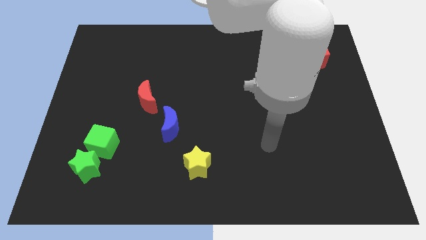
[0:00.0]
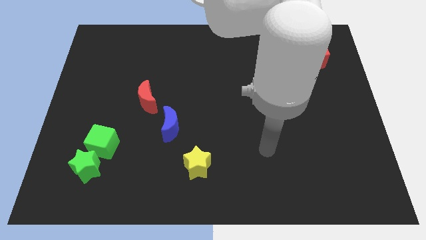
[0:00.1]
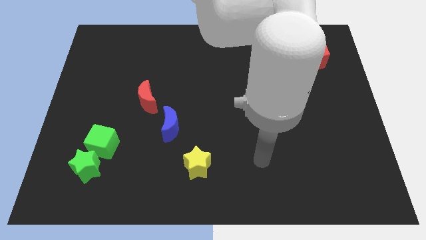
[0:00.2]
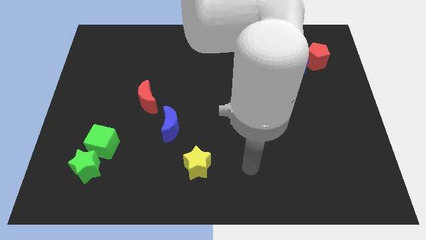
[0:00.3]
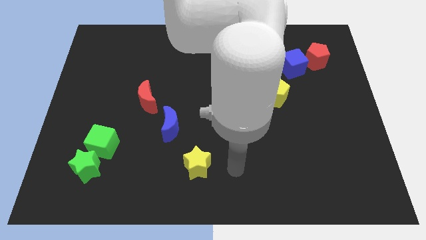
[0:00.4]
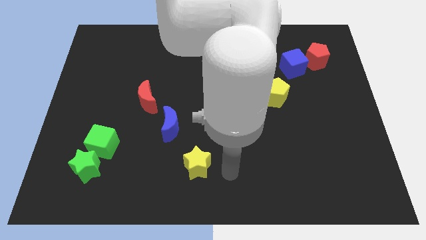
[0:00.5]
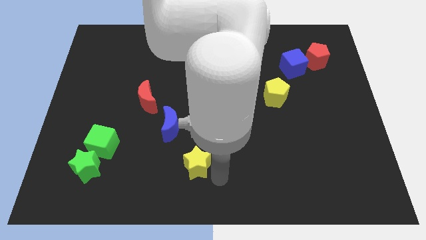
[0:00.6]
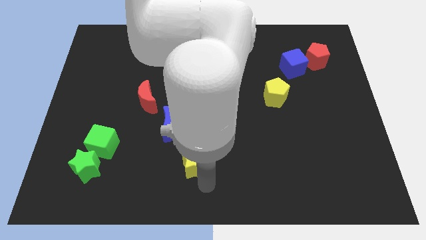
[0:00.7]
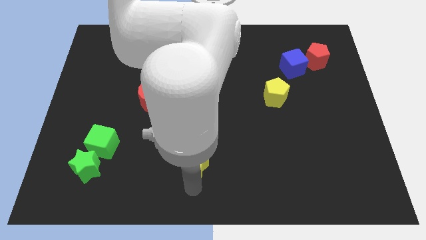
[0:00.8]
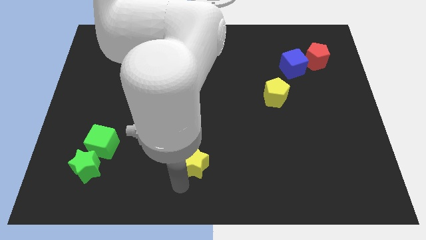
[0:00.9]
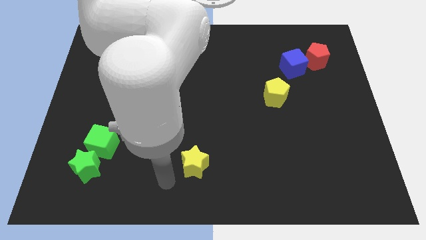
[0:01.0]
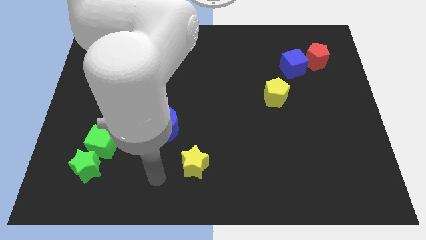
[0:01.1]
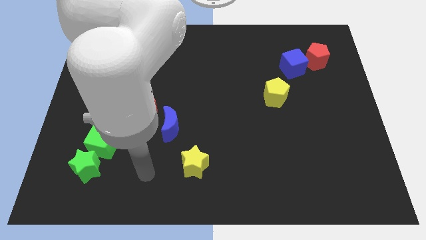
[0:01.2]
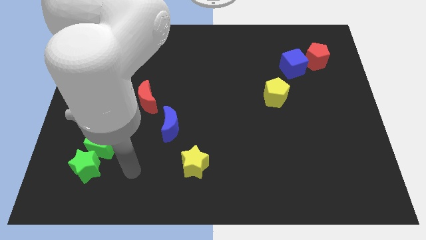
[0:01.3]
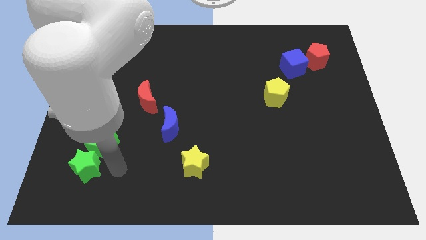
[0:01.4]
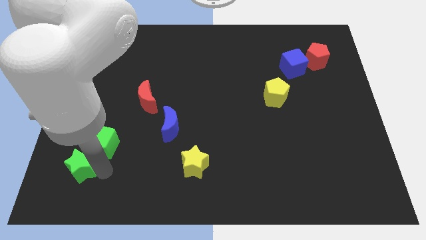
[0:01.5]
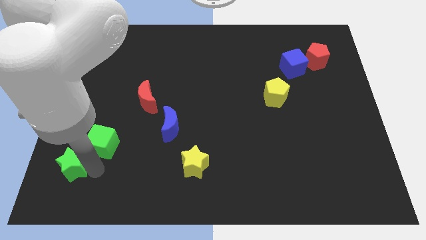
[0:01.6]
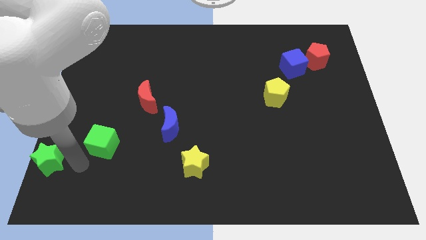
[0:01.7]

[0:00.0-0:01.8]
move the green cube away from the green star

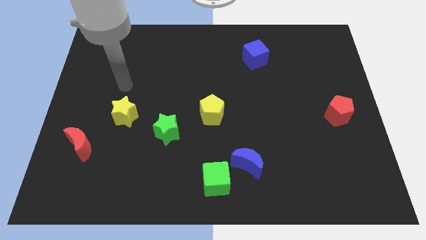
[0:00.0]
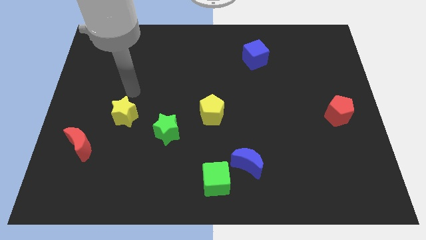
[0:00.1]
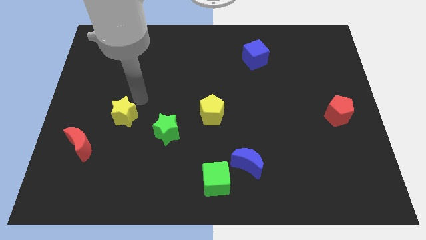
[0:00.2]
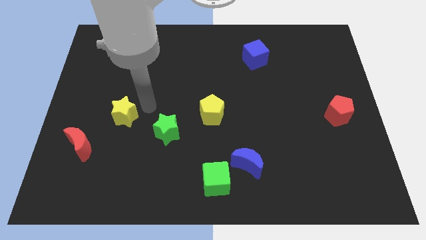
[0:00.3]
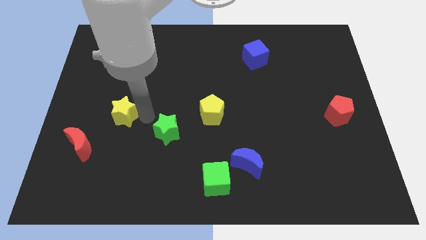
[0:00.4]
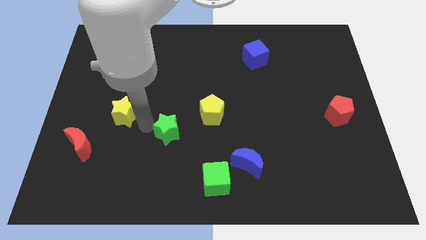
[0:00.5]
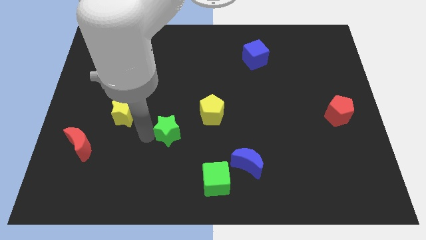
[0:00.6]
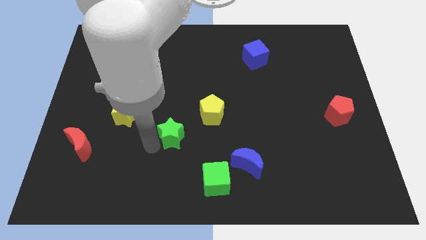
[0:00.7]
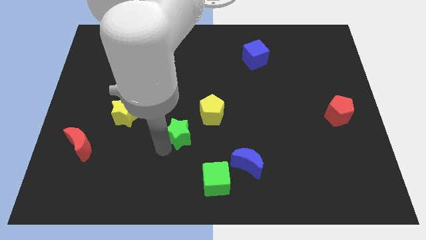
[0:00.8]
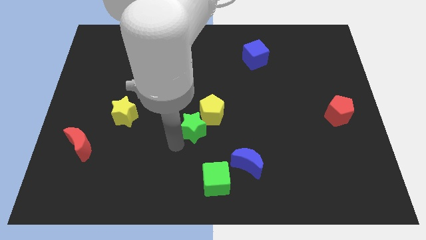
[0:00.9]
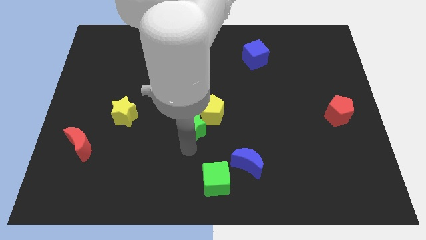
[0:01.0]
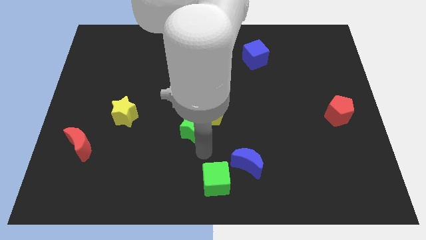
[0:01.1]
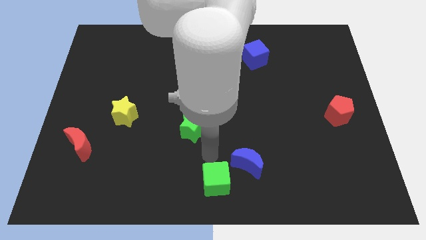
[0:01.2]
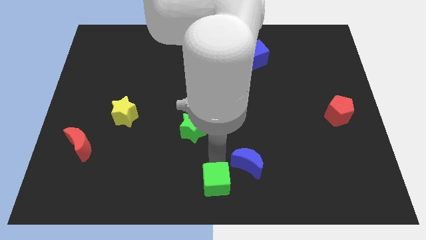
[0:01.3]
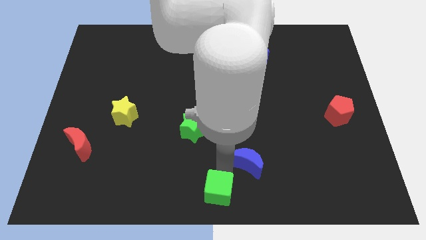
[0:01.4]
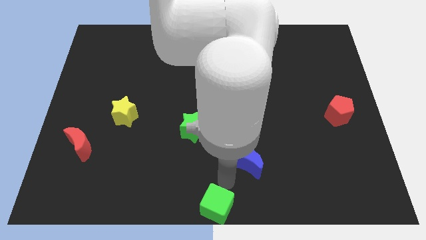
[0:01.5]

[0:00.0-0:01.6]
move the blue moon away from the green cube

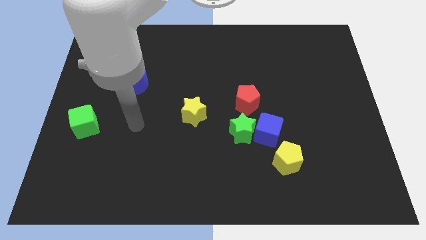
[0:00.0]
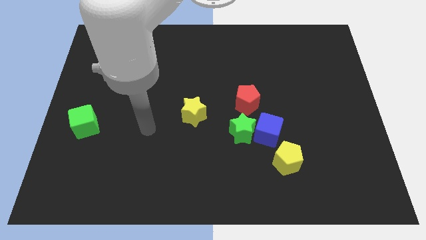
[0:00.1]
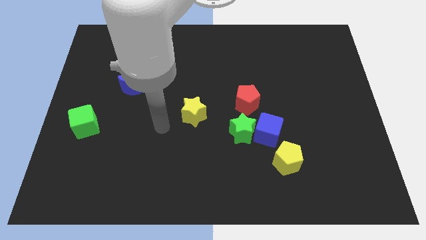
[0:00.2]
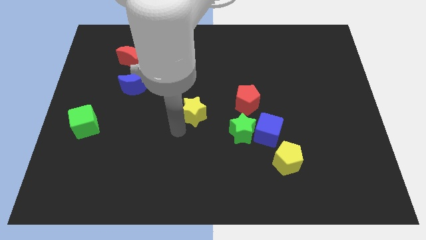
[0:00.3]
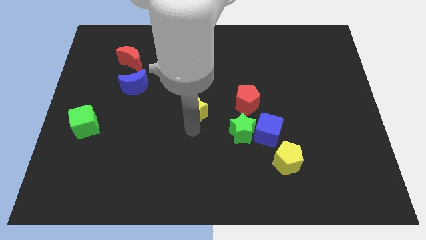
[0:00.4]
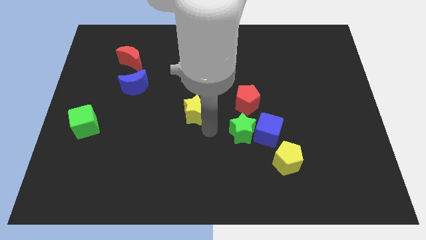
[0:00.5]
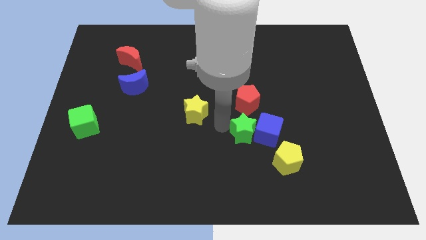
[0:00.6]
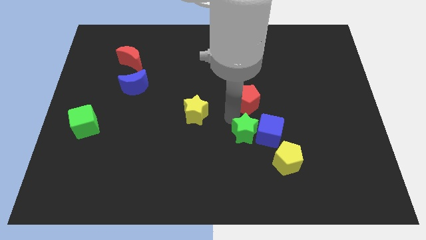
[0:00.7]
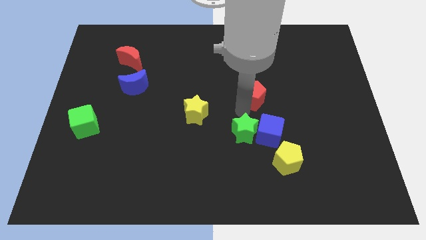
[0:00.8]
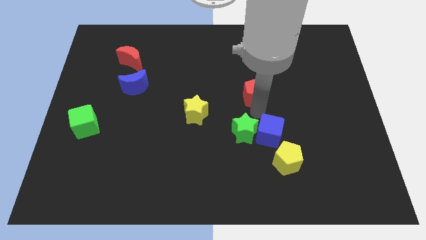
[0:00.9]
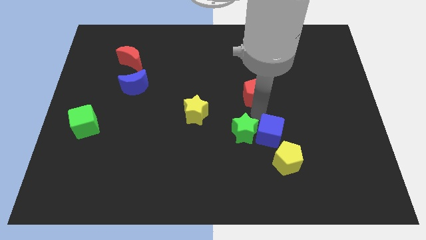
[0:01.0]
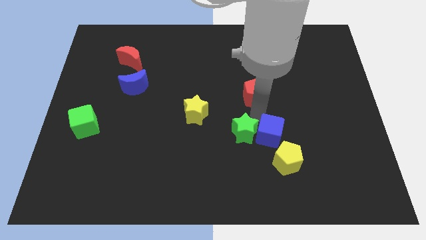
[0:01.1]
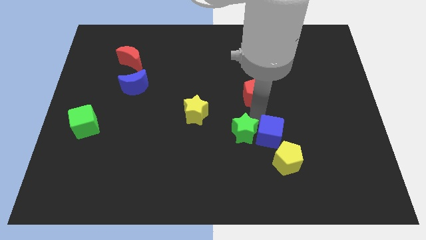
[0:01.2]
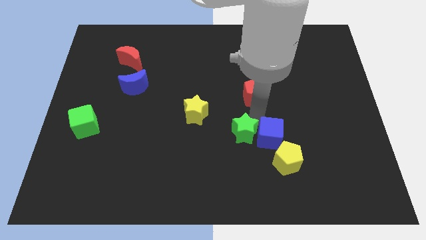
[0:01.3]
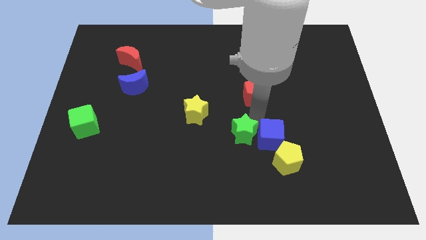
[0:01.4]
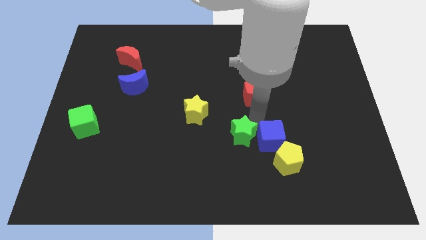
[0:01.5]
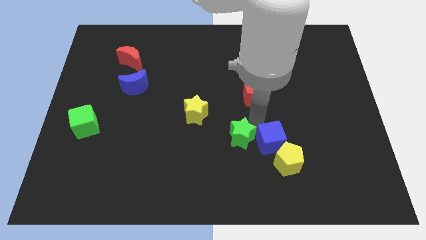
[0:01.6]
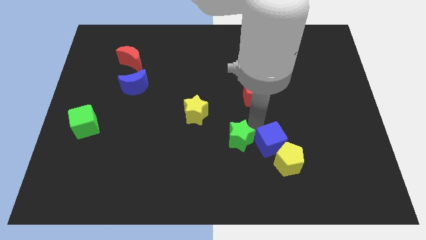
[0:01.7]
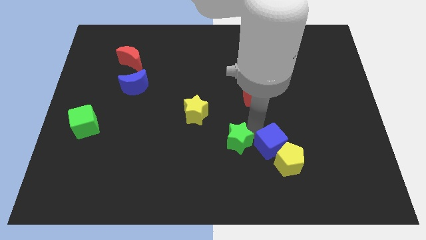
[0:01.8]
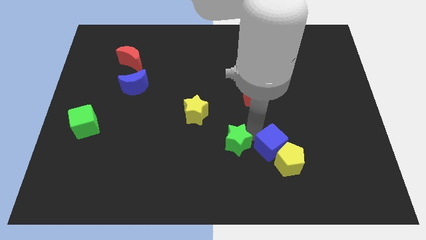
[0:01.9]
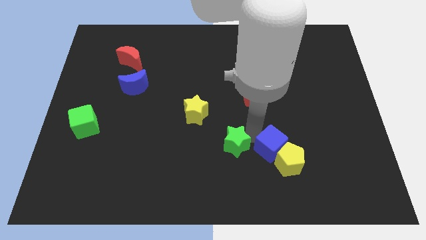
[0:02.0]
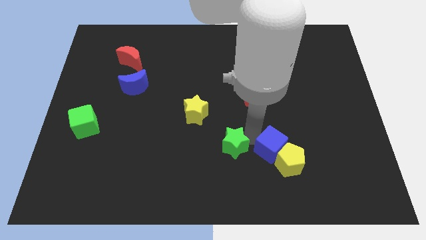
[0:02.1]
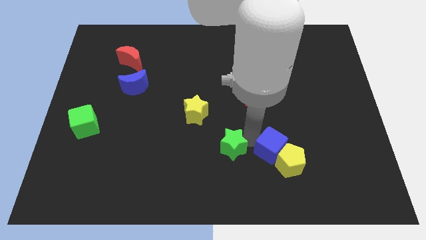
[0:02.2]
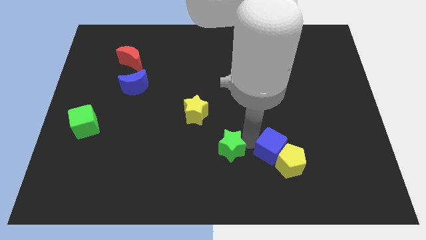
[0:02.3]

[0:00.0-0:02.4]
pull the green star apart from the blue cube and red pentagon

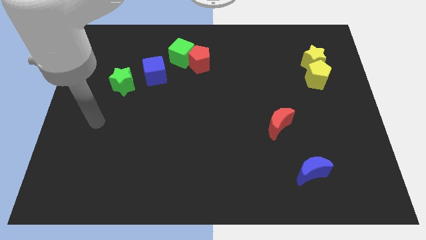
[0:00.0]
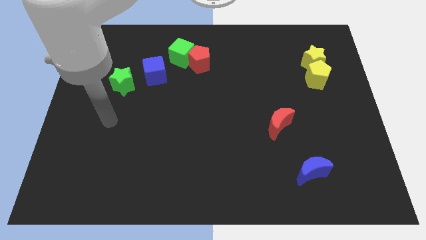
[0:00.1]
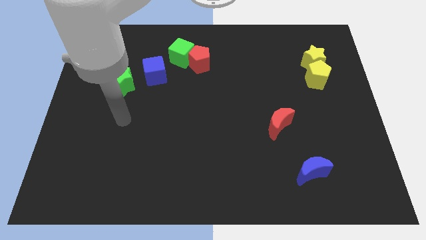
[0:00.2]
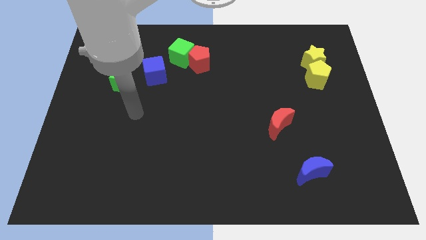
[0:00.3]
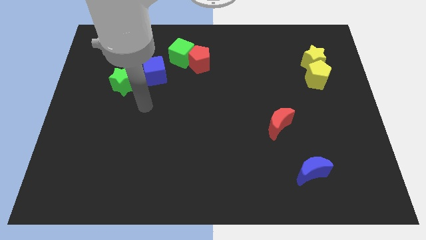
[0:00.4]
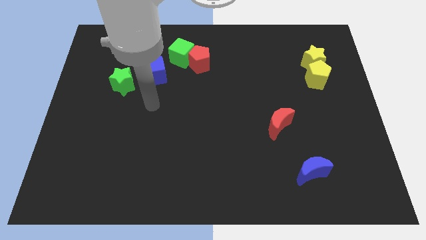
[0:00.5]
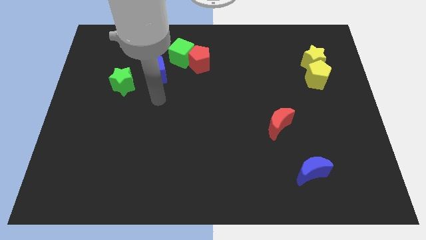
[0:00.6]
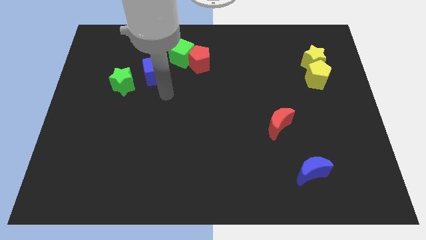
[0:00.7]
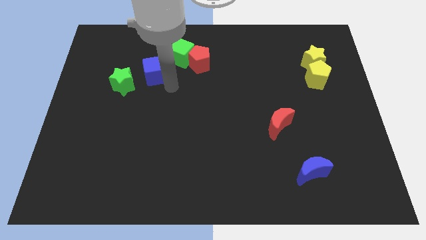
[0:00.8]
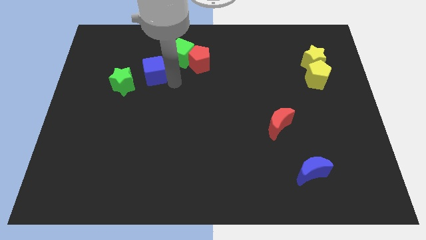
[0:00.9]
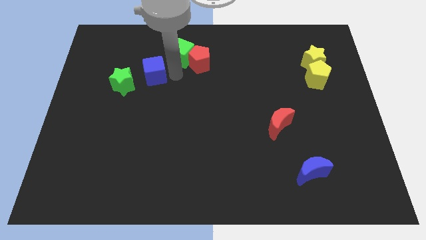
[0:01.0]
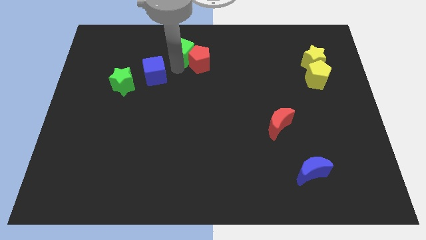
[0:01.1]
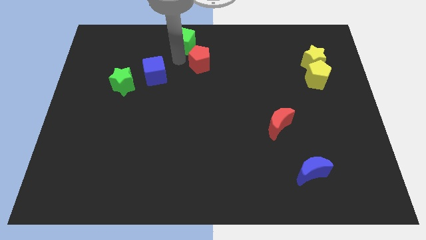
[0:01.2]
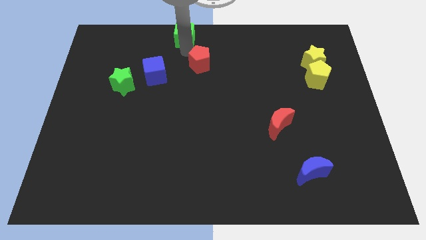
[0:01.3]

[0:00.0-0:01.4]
separate the red pentagon from the green cube

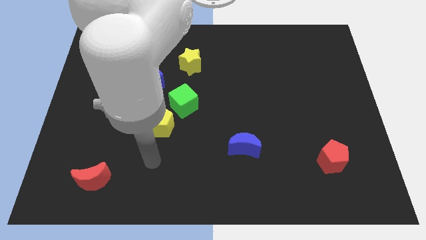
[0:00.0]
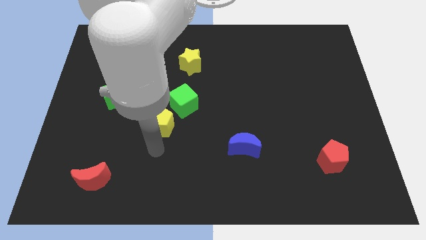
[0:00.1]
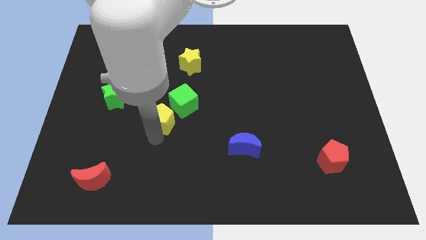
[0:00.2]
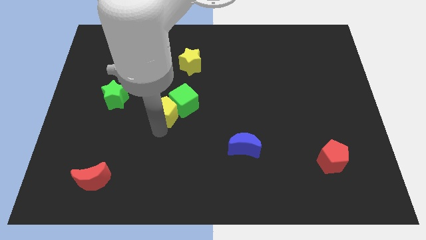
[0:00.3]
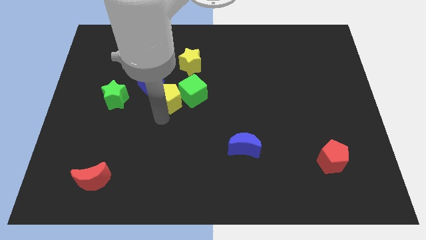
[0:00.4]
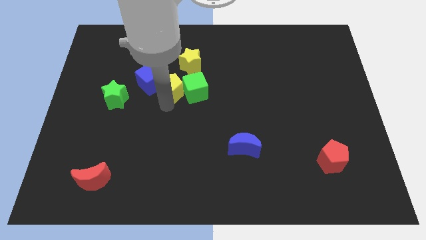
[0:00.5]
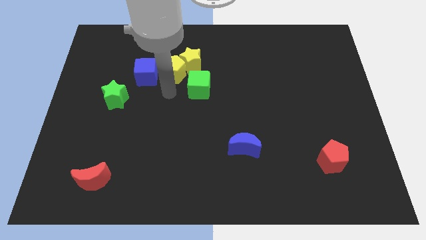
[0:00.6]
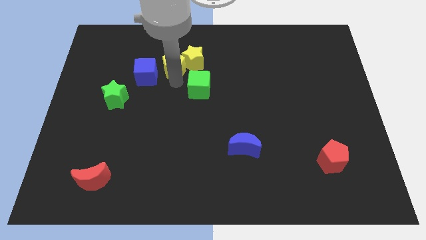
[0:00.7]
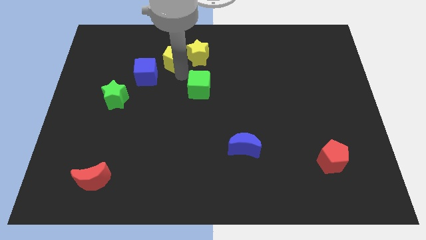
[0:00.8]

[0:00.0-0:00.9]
pull the green cube apart from the yellow pentagon

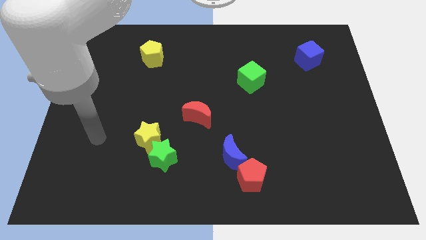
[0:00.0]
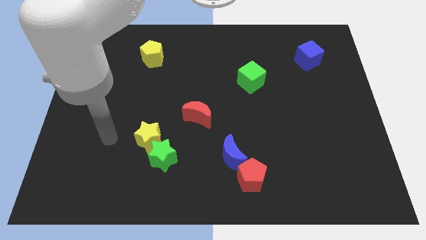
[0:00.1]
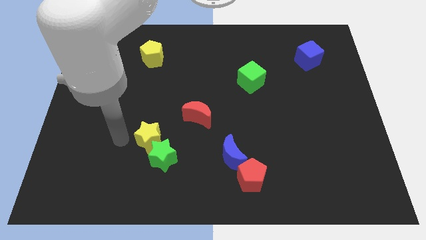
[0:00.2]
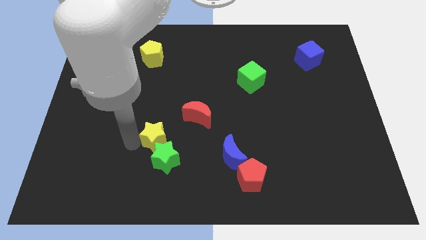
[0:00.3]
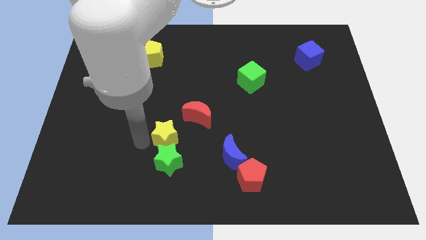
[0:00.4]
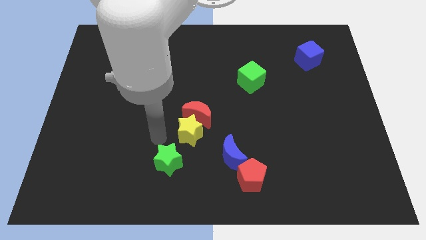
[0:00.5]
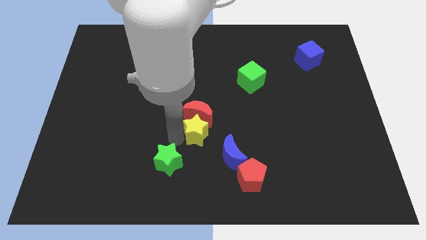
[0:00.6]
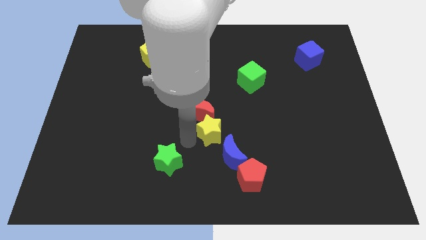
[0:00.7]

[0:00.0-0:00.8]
separate the green star from the yellow star

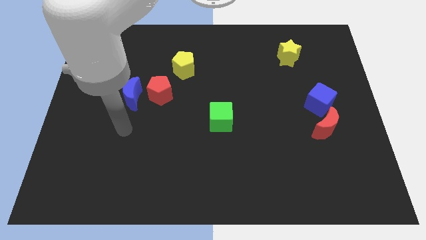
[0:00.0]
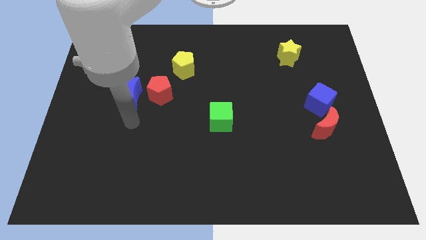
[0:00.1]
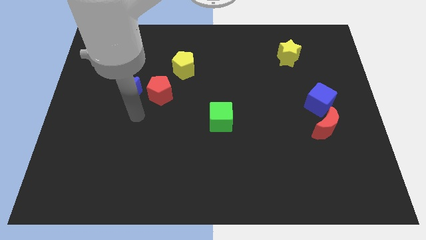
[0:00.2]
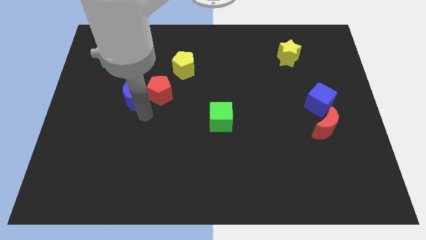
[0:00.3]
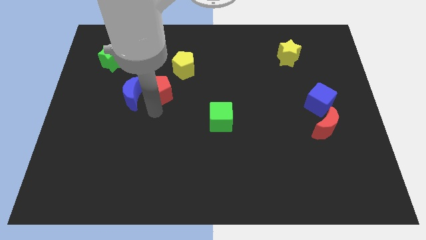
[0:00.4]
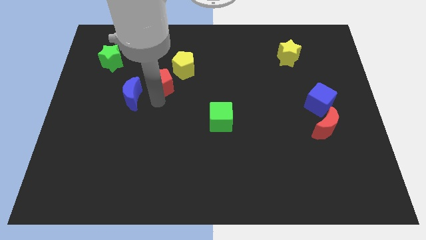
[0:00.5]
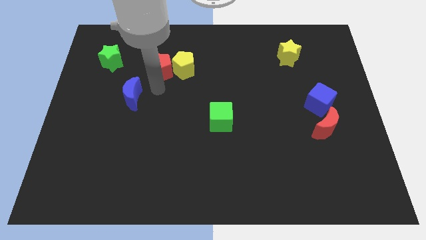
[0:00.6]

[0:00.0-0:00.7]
move the blue moon away from the red pentagon
